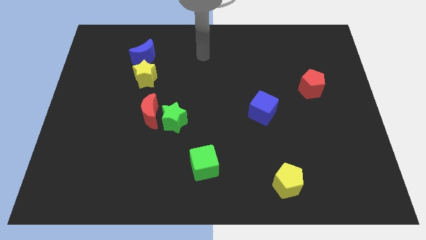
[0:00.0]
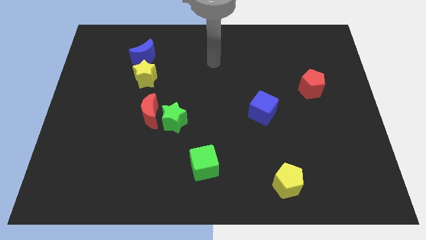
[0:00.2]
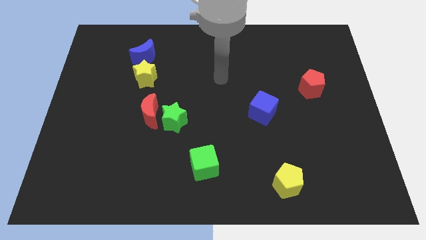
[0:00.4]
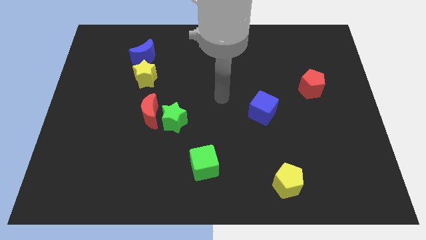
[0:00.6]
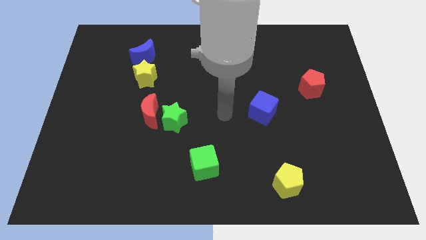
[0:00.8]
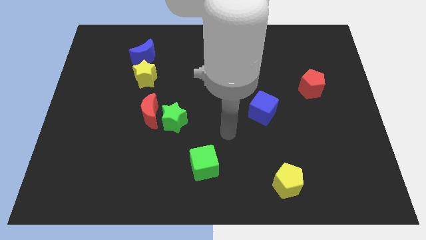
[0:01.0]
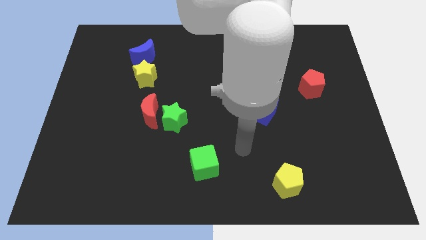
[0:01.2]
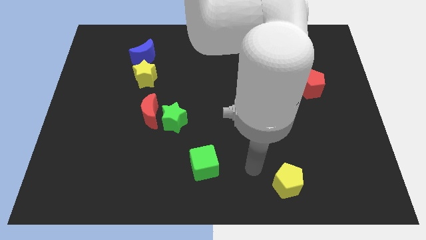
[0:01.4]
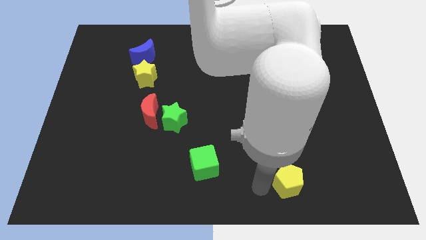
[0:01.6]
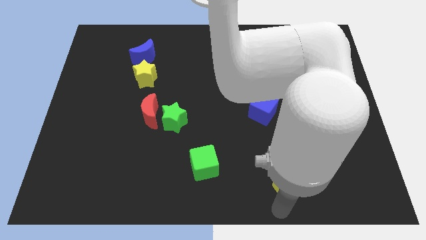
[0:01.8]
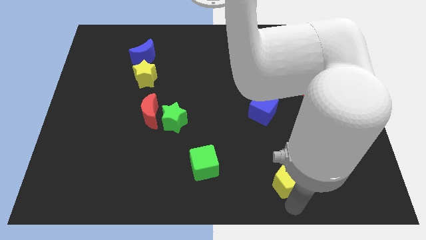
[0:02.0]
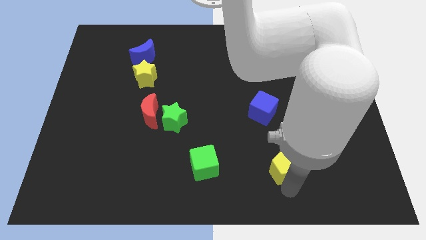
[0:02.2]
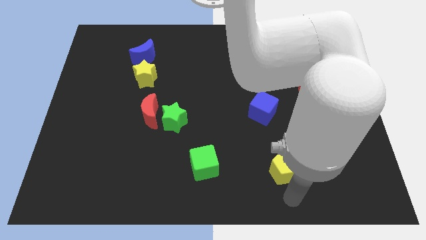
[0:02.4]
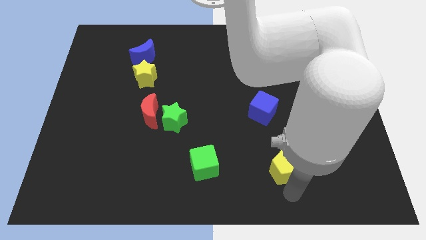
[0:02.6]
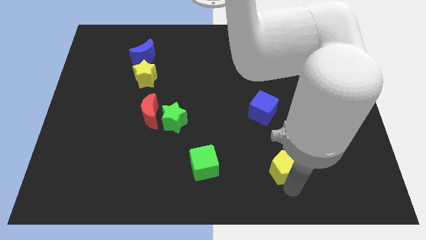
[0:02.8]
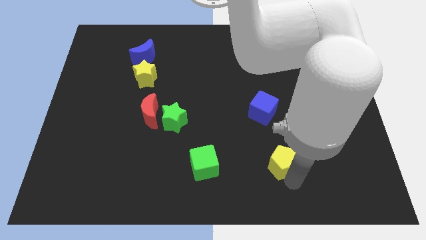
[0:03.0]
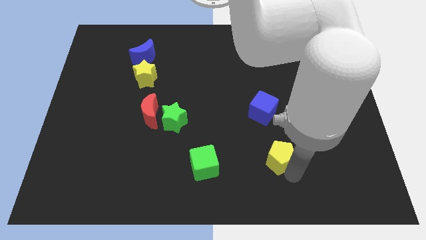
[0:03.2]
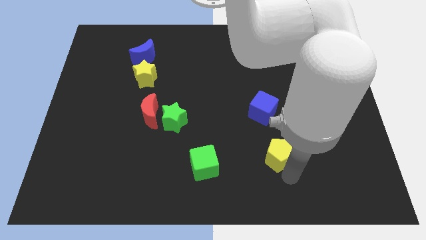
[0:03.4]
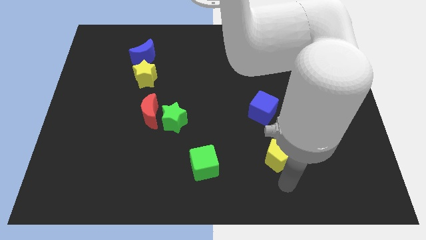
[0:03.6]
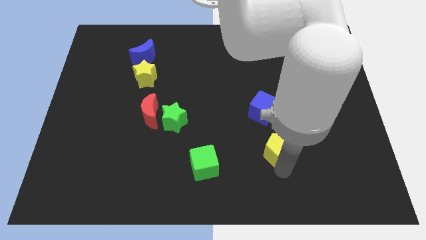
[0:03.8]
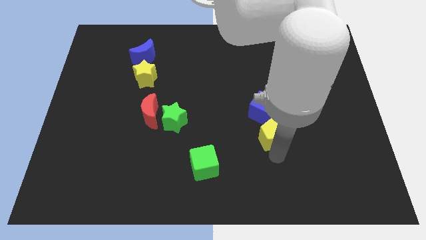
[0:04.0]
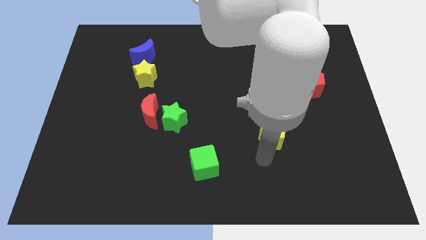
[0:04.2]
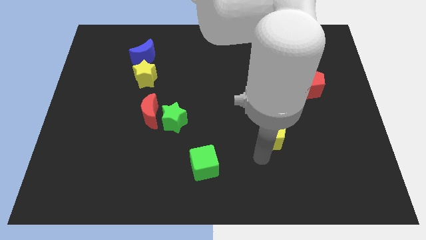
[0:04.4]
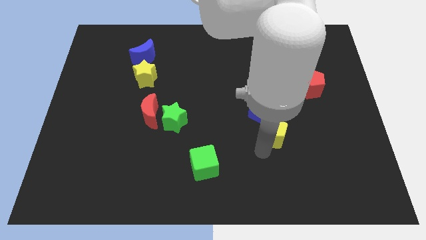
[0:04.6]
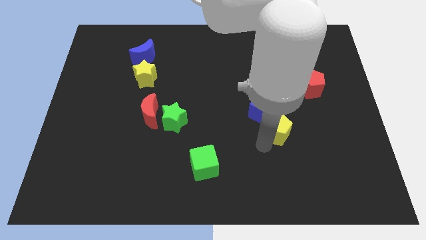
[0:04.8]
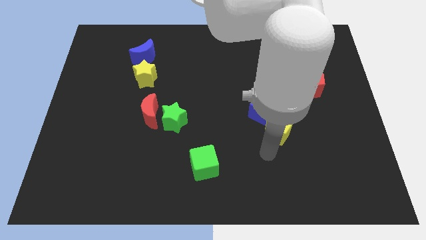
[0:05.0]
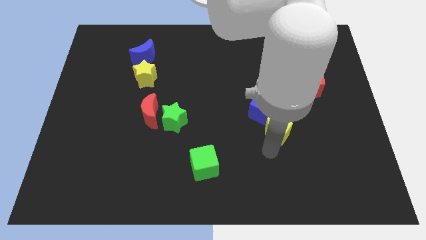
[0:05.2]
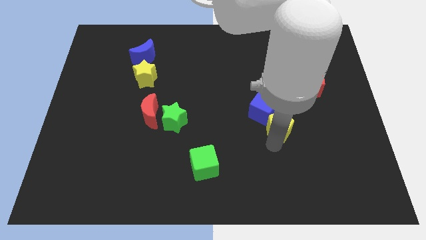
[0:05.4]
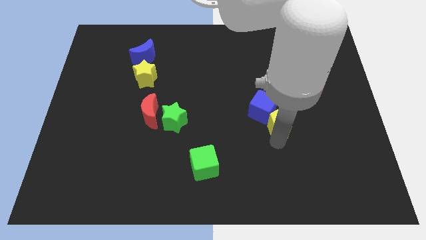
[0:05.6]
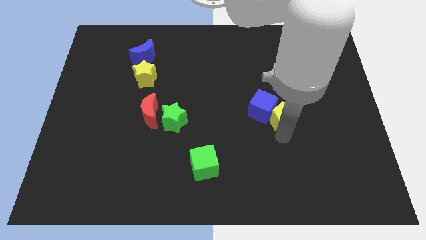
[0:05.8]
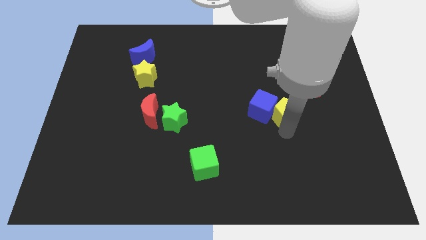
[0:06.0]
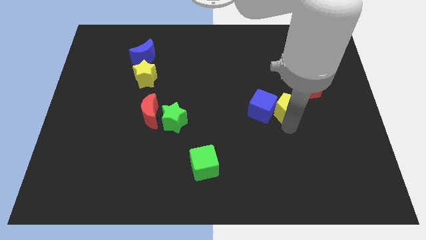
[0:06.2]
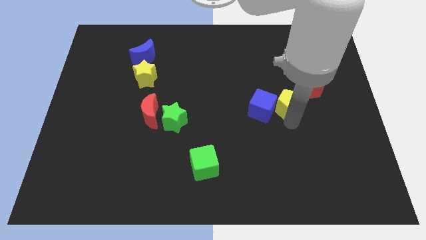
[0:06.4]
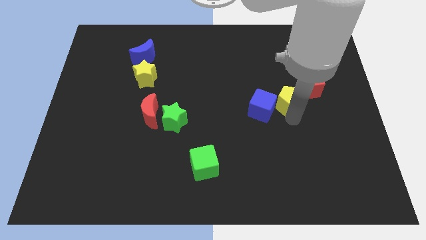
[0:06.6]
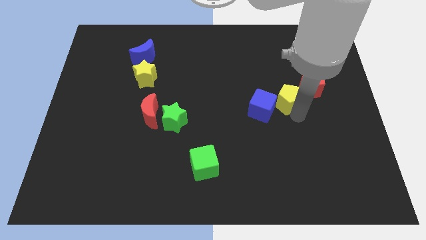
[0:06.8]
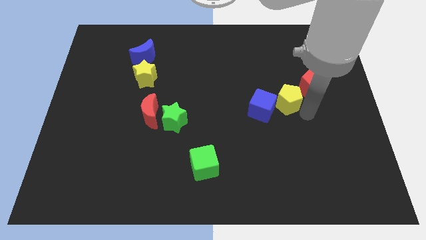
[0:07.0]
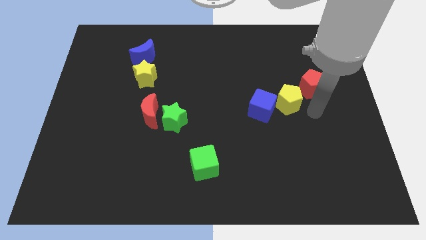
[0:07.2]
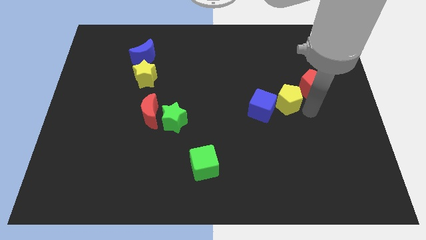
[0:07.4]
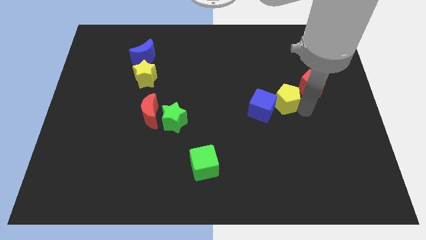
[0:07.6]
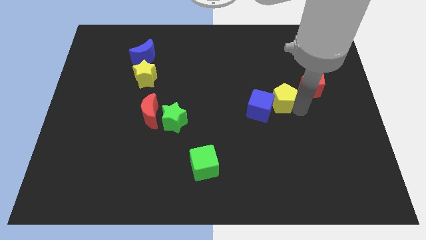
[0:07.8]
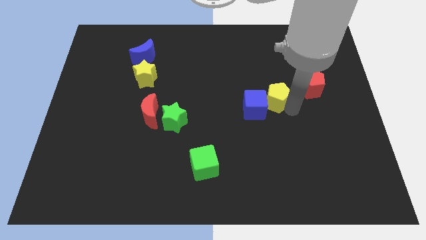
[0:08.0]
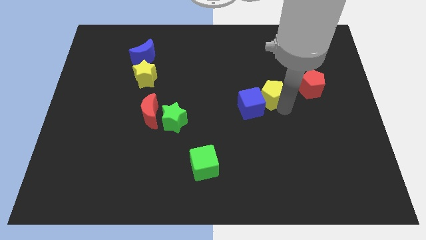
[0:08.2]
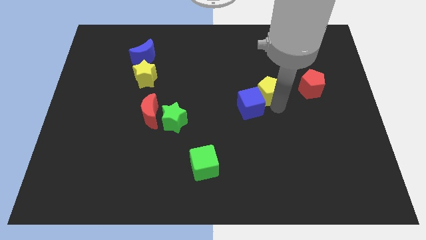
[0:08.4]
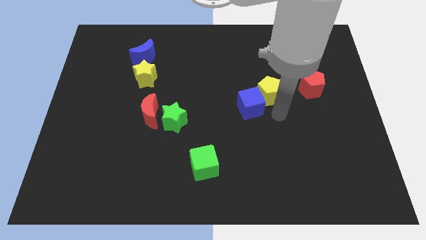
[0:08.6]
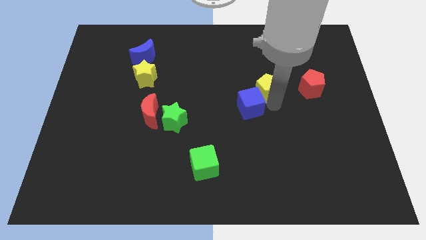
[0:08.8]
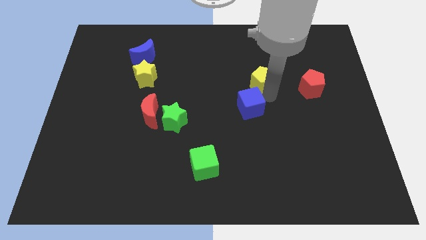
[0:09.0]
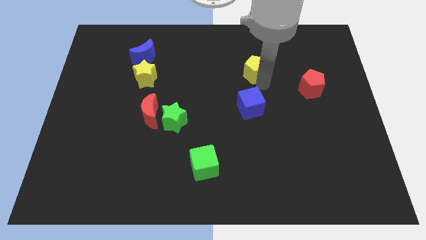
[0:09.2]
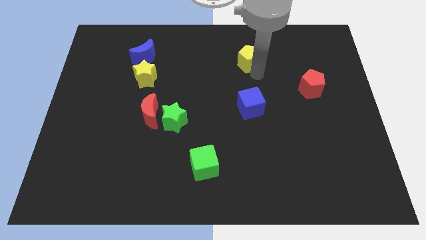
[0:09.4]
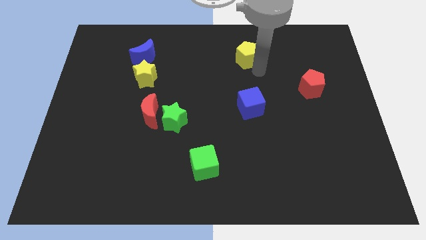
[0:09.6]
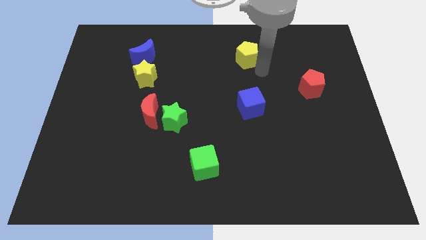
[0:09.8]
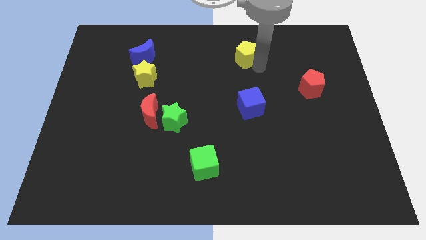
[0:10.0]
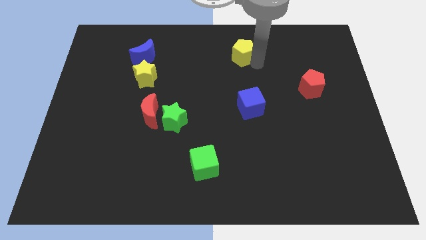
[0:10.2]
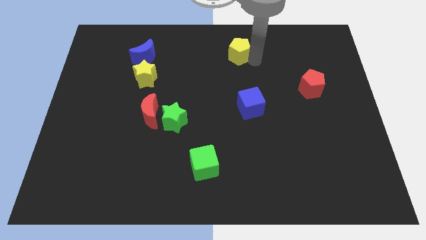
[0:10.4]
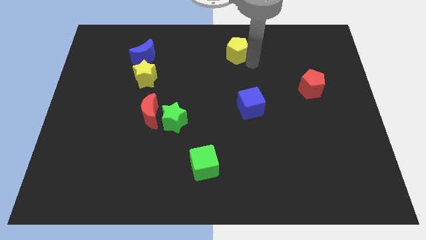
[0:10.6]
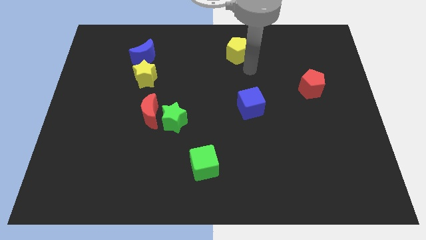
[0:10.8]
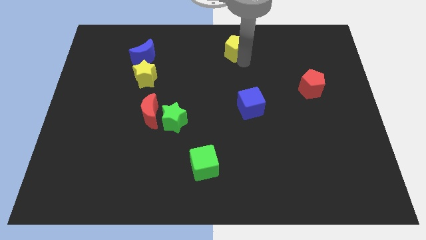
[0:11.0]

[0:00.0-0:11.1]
slide the yellow pentagon to the top
